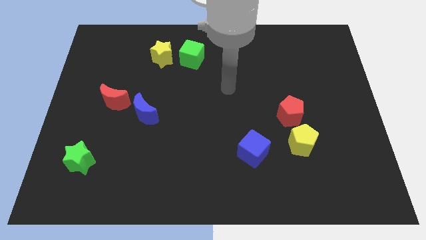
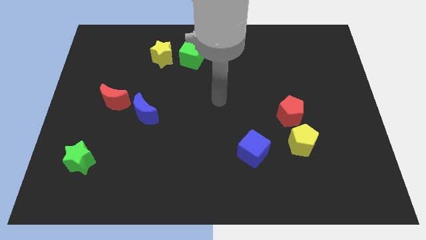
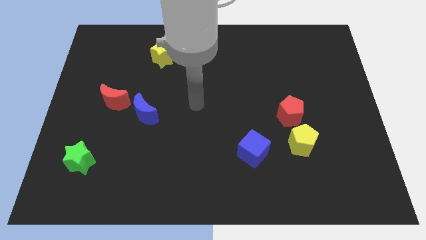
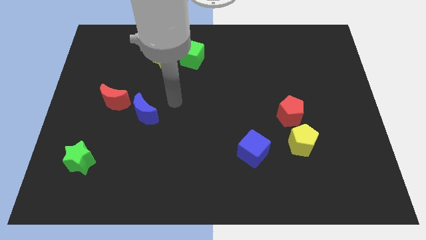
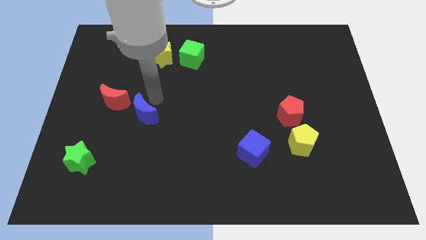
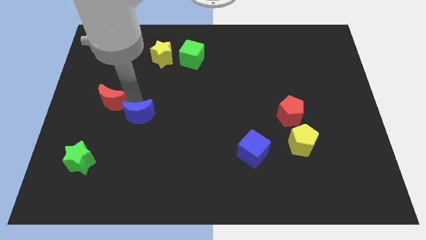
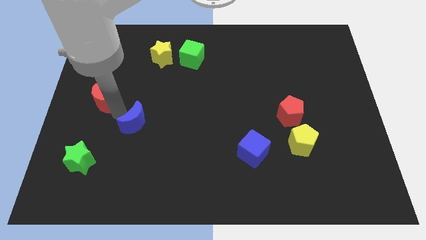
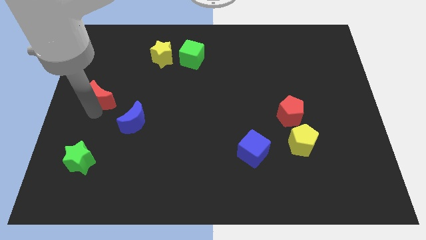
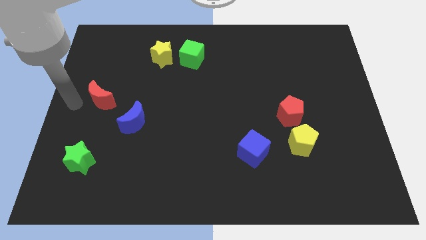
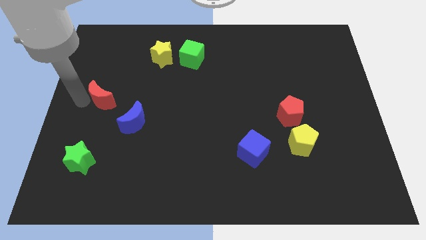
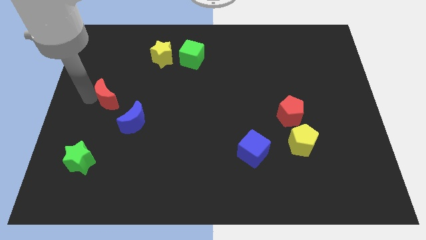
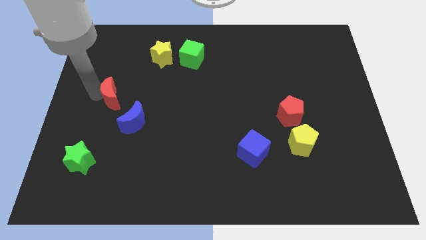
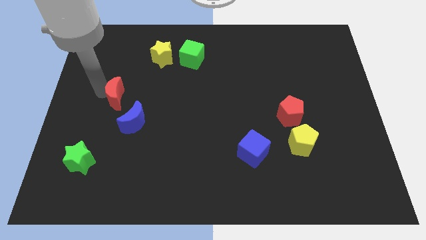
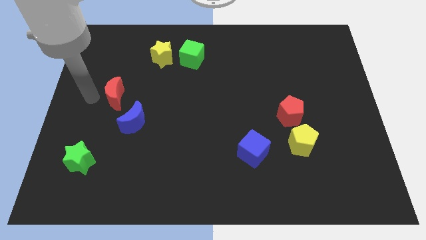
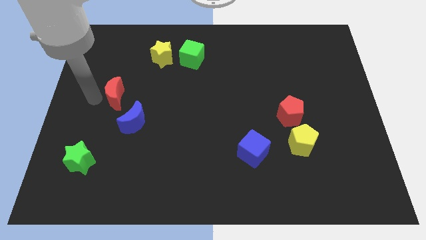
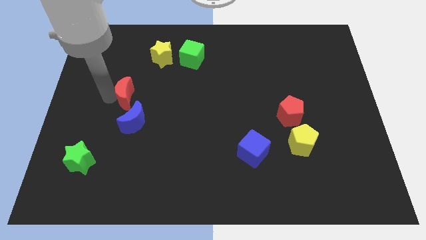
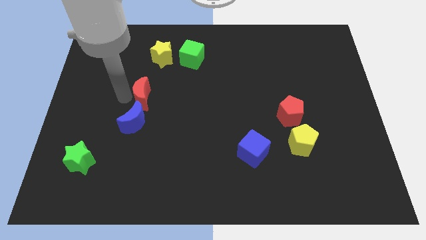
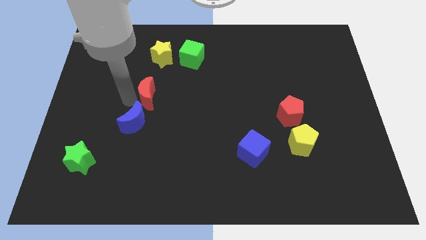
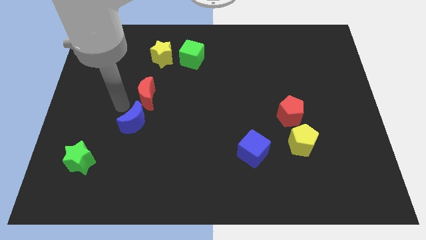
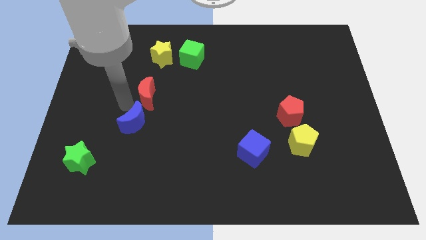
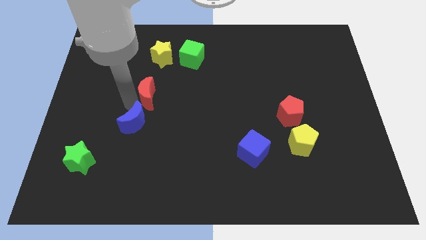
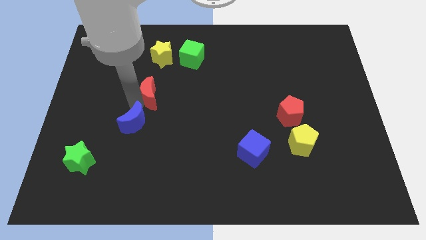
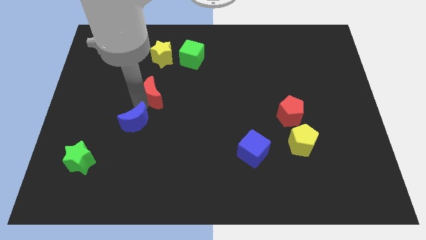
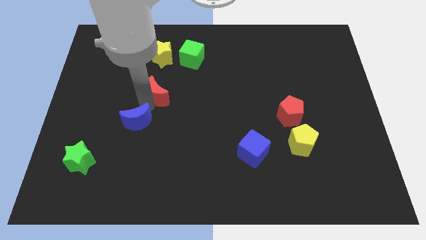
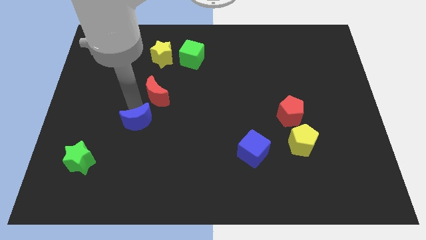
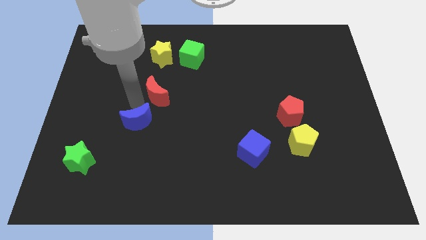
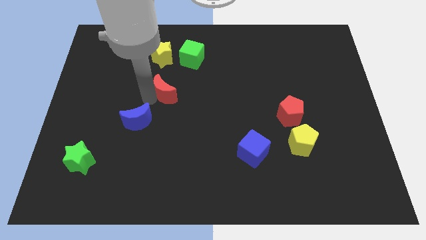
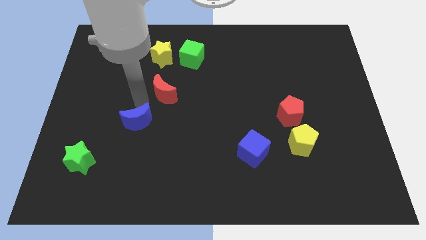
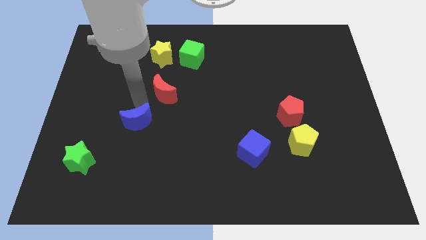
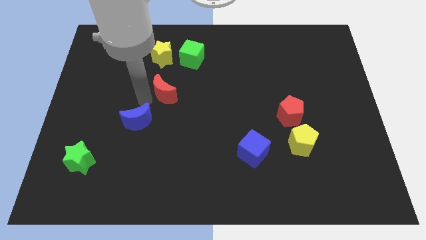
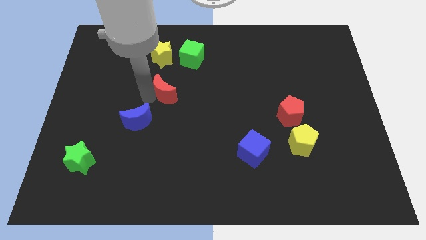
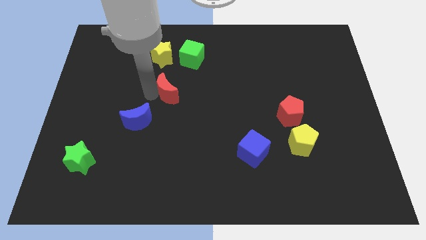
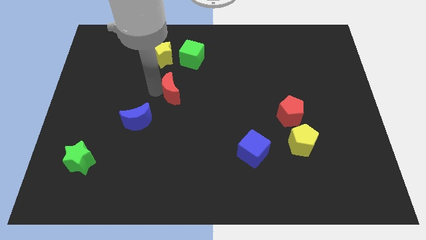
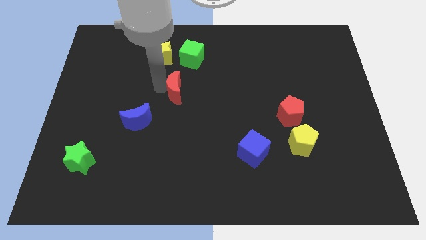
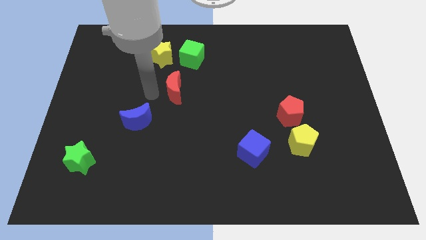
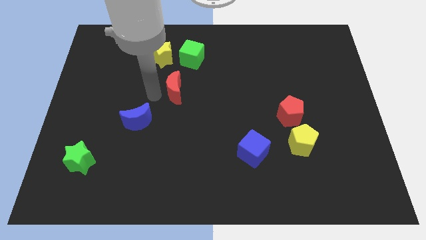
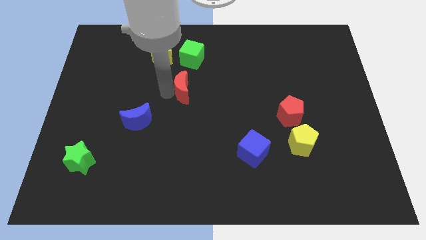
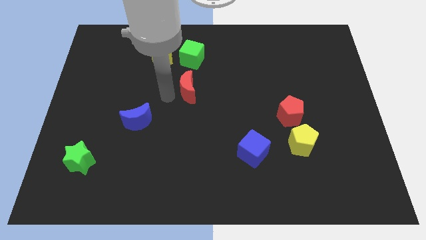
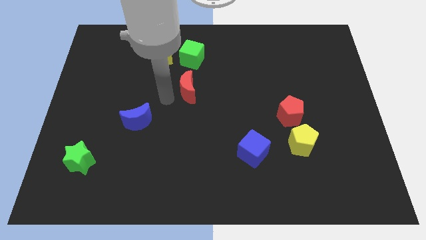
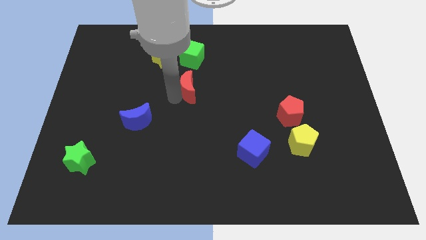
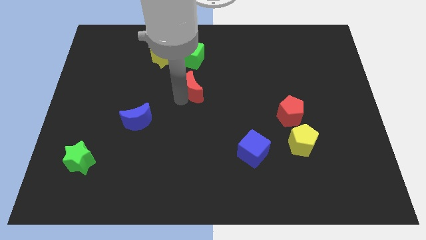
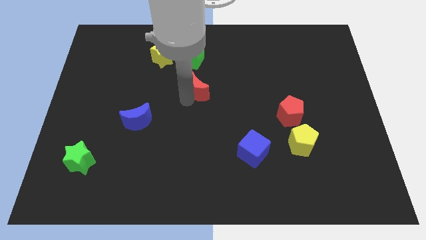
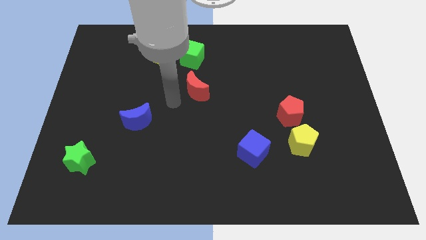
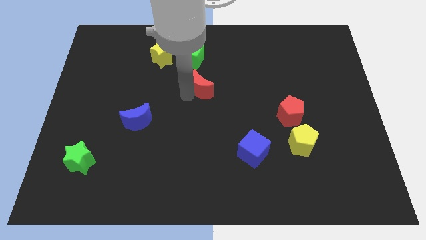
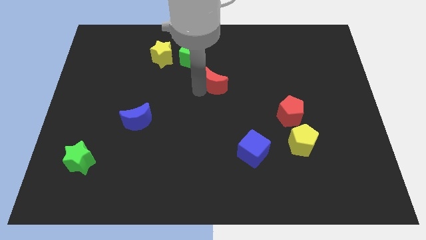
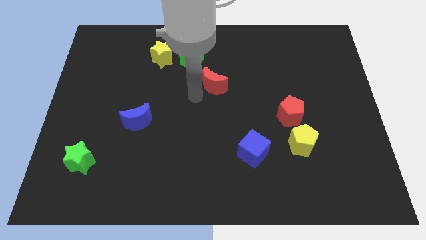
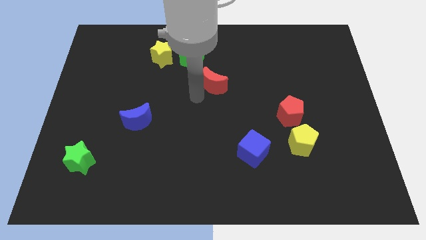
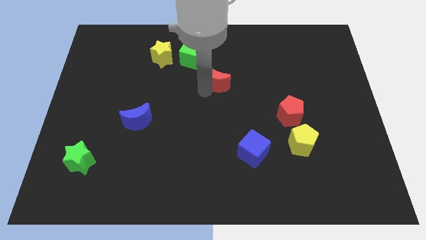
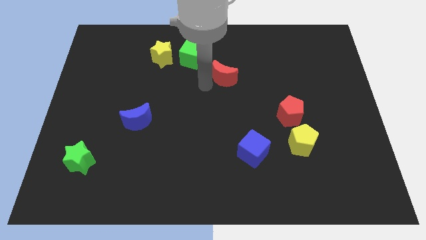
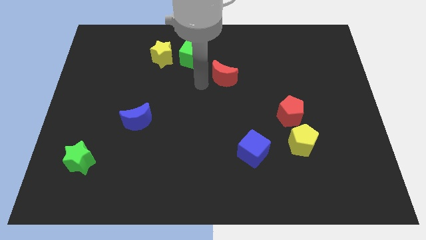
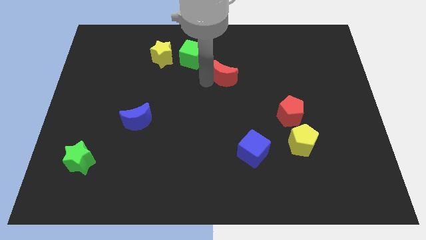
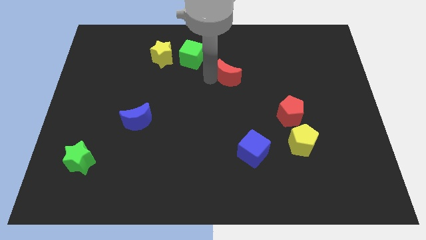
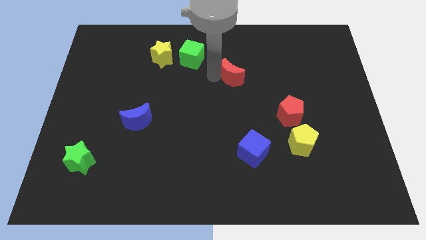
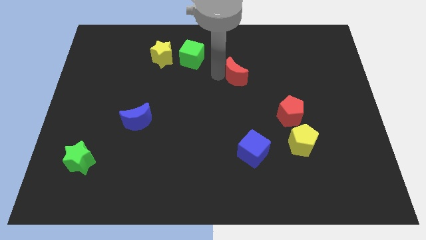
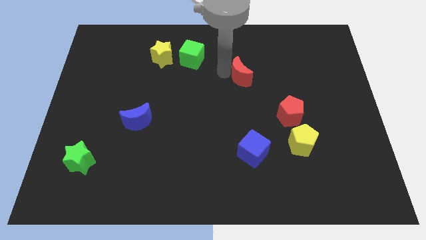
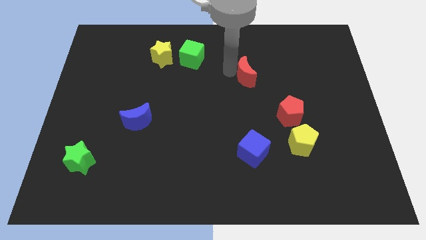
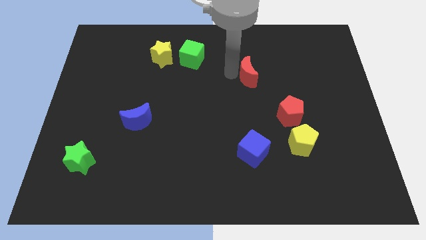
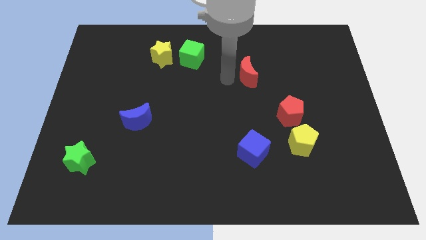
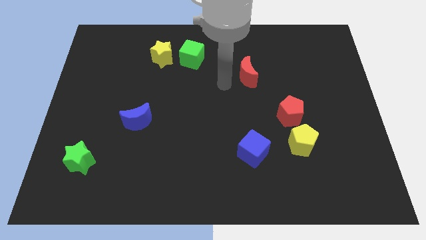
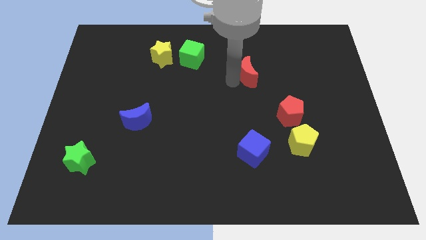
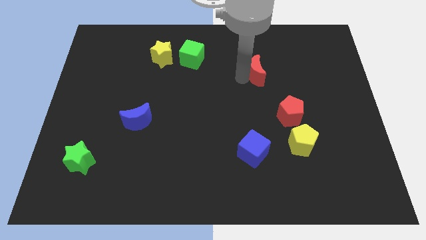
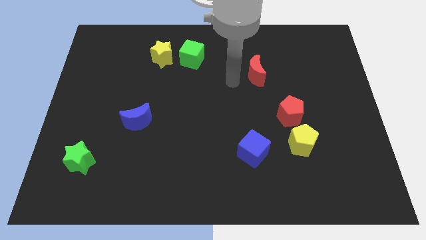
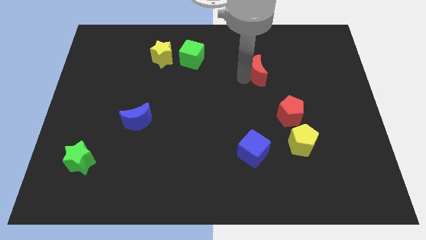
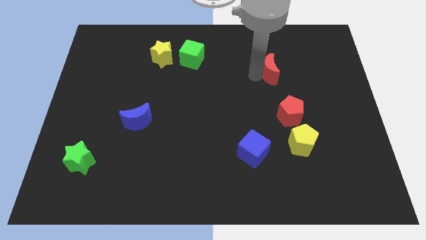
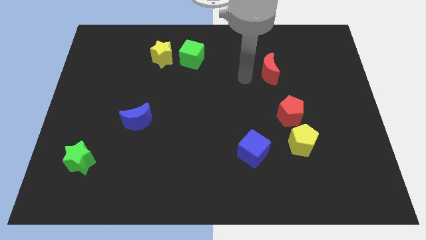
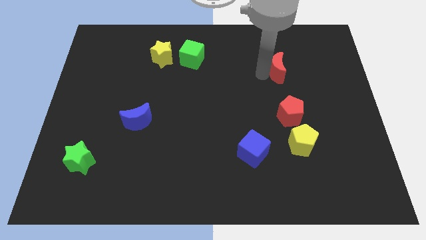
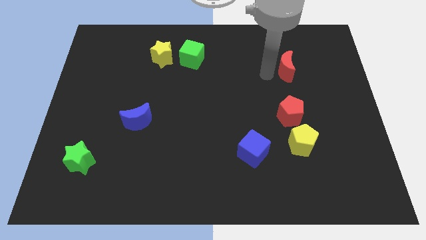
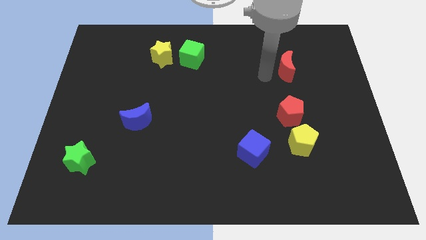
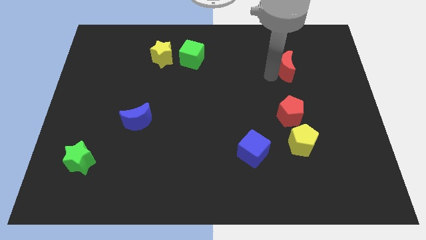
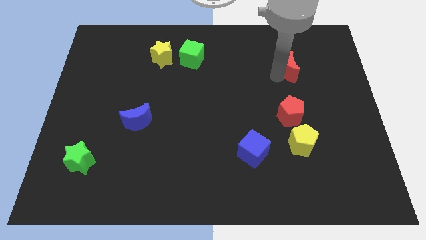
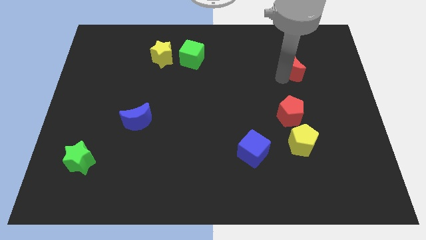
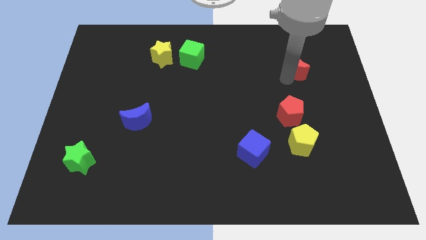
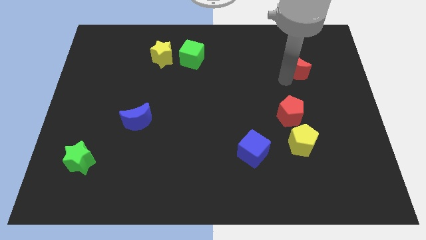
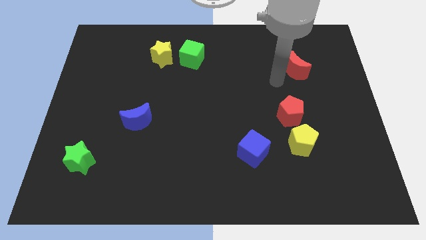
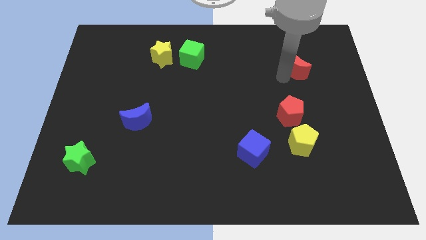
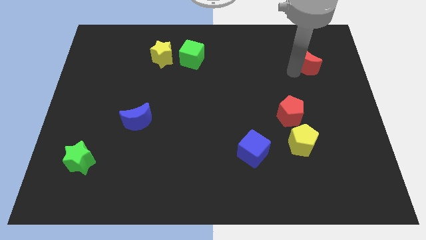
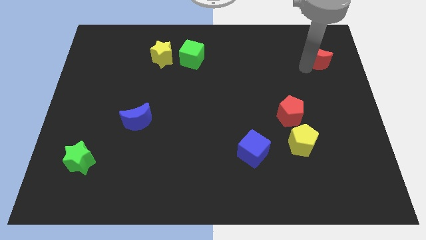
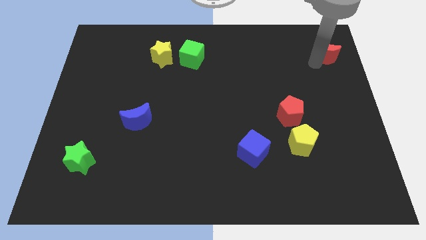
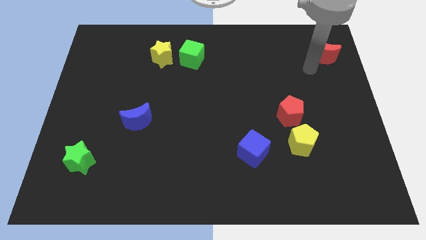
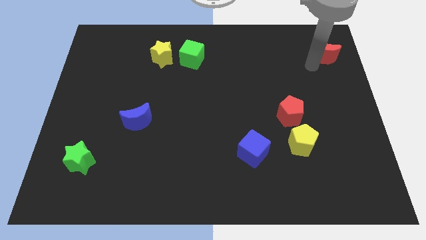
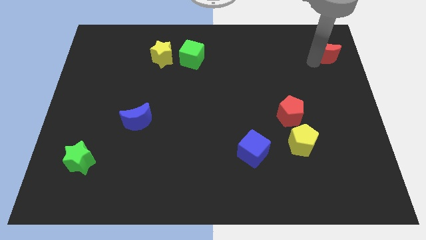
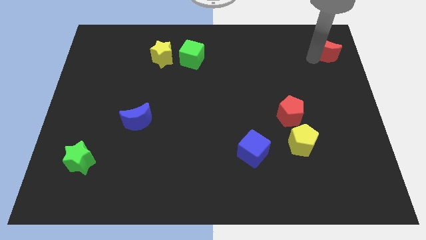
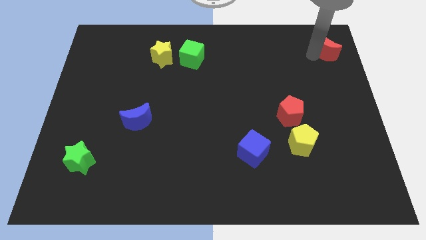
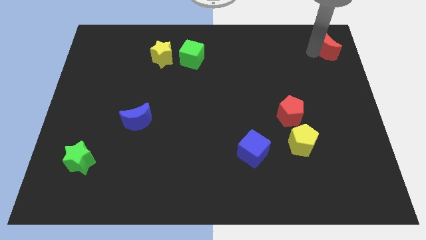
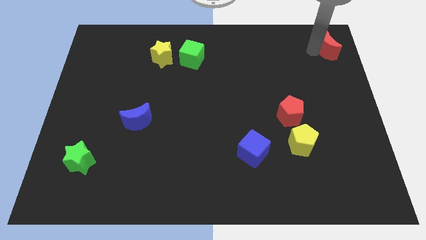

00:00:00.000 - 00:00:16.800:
put the red moon to the top right corner
